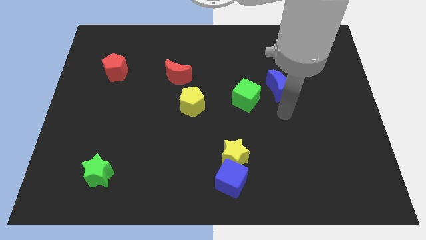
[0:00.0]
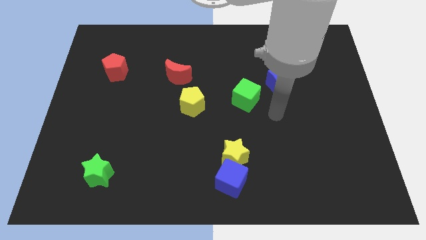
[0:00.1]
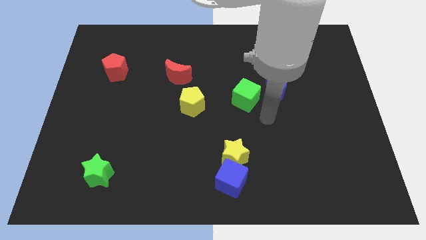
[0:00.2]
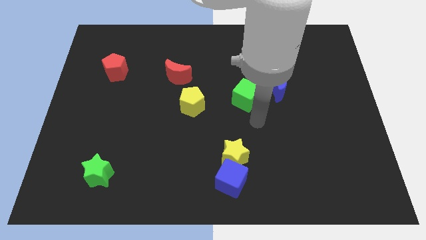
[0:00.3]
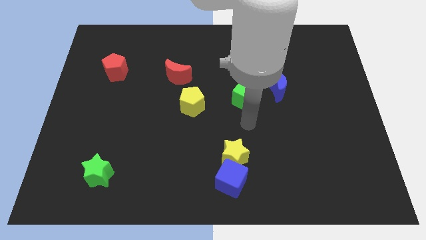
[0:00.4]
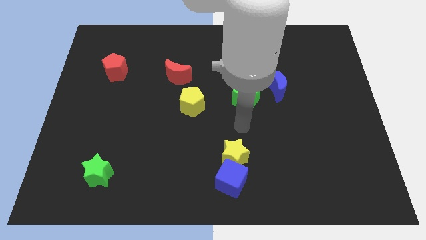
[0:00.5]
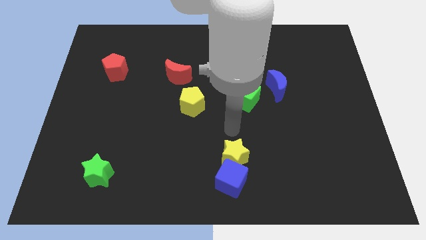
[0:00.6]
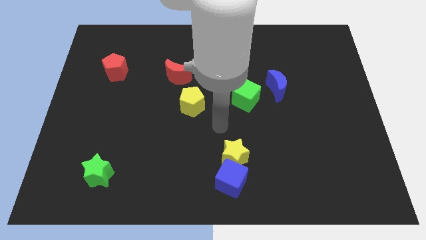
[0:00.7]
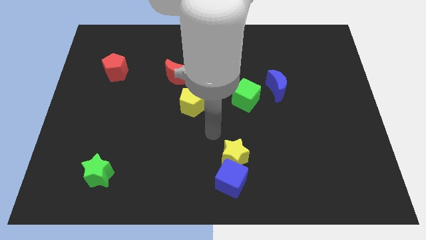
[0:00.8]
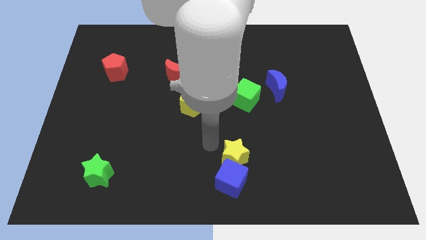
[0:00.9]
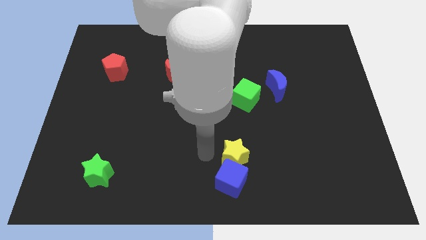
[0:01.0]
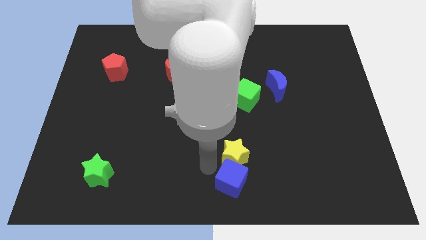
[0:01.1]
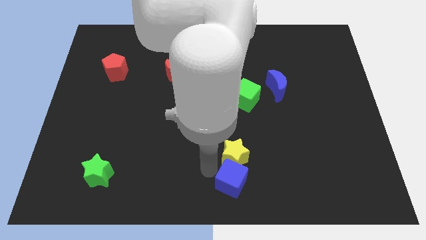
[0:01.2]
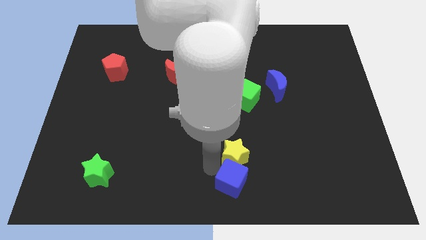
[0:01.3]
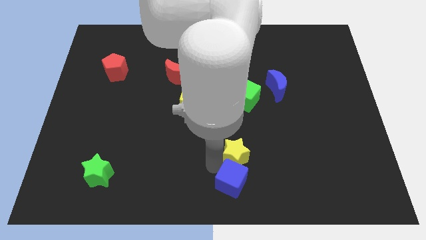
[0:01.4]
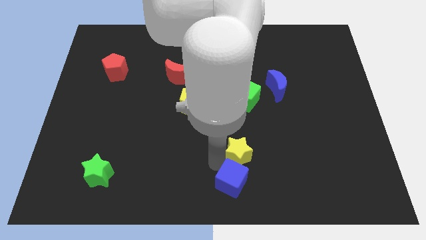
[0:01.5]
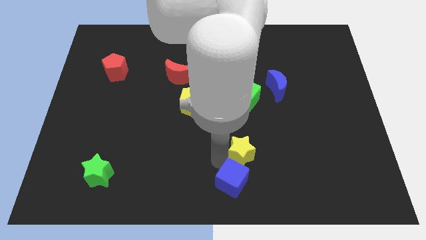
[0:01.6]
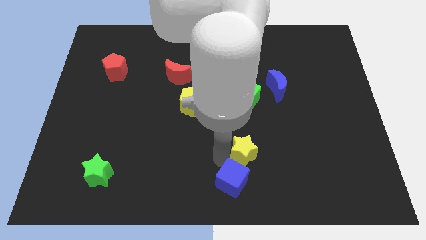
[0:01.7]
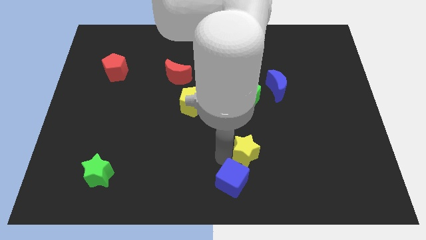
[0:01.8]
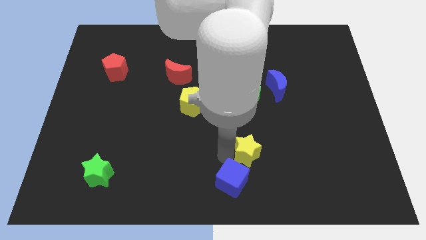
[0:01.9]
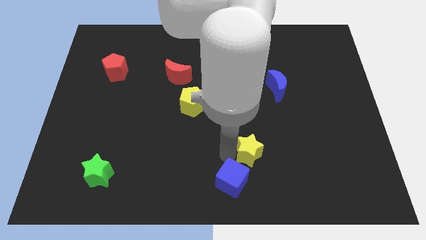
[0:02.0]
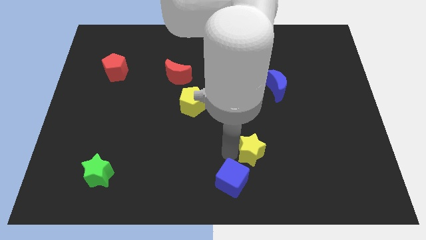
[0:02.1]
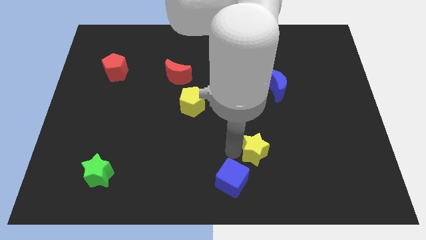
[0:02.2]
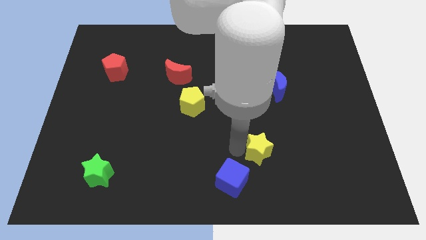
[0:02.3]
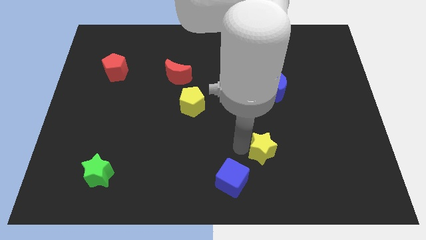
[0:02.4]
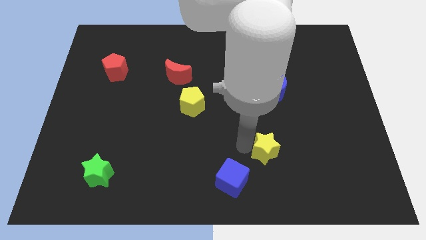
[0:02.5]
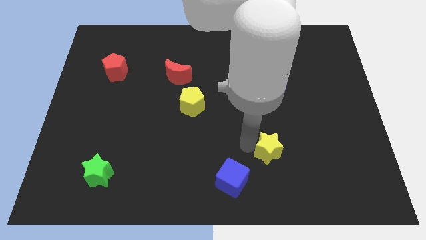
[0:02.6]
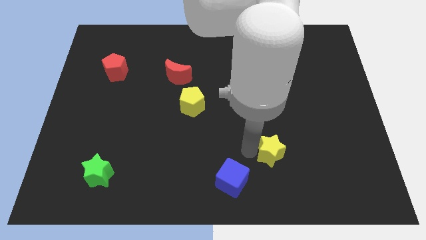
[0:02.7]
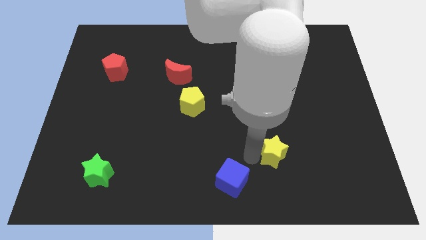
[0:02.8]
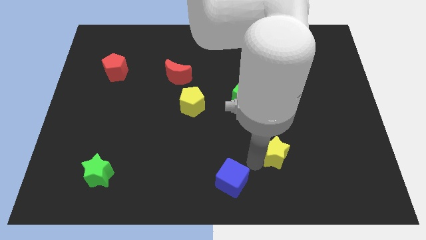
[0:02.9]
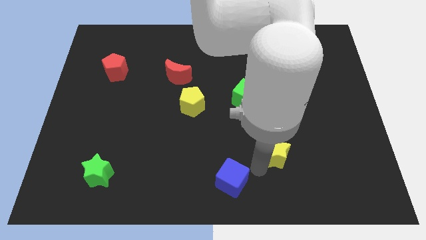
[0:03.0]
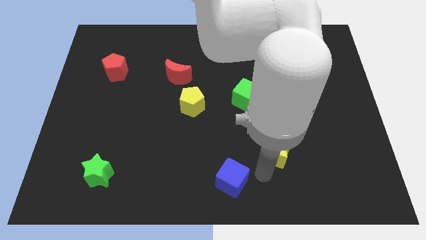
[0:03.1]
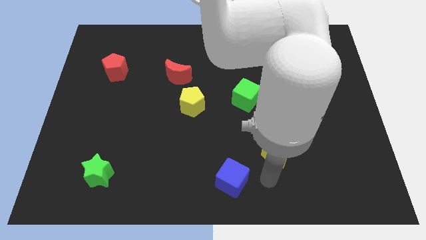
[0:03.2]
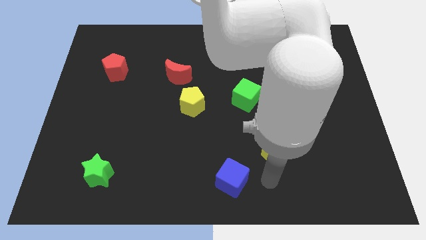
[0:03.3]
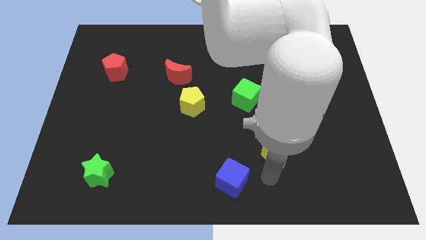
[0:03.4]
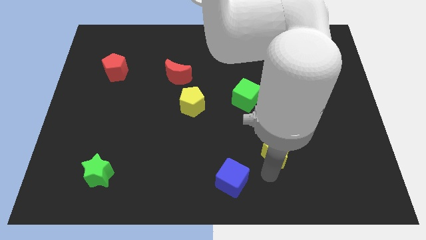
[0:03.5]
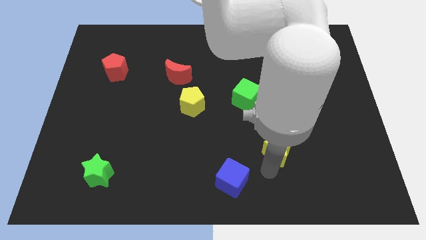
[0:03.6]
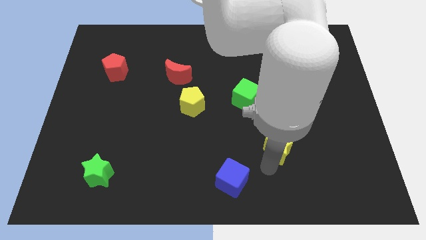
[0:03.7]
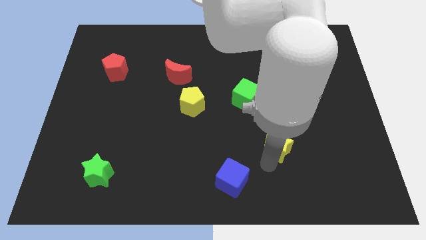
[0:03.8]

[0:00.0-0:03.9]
slide the yellow star a little up and then to the right

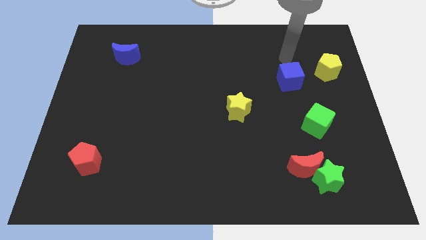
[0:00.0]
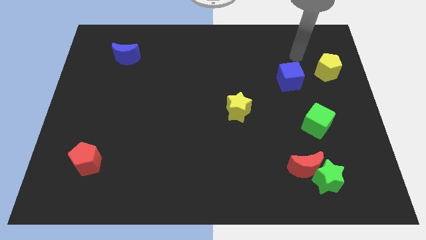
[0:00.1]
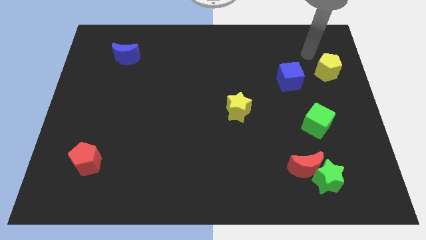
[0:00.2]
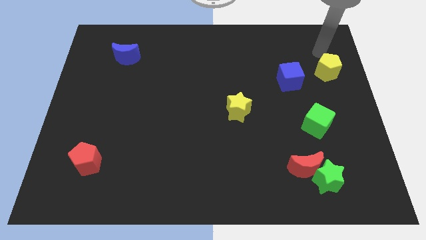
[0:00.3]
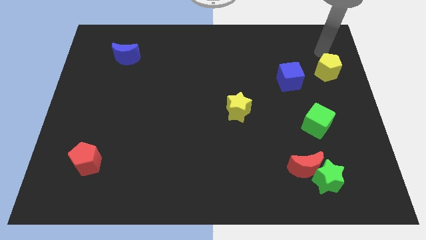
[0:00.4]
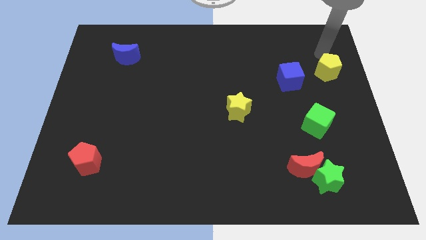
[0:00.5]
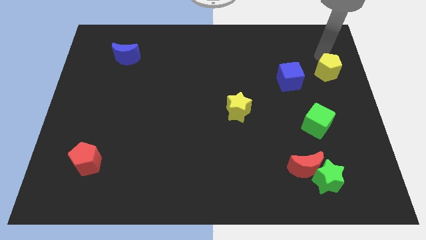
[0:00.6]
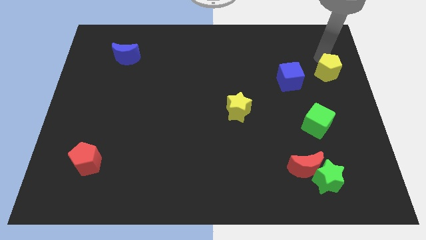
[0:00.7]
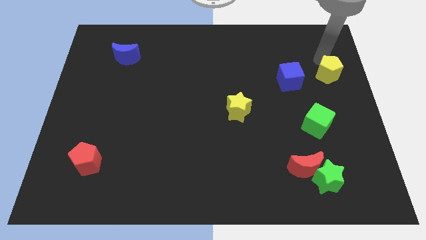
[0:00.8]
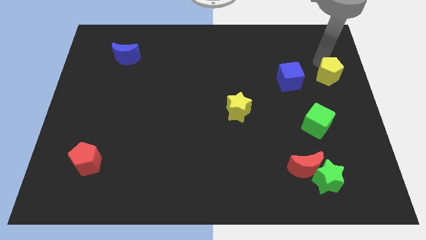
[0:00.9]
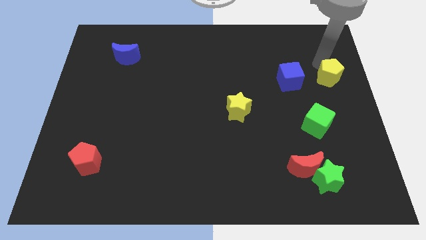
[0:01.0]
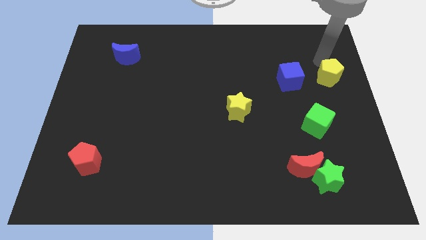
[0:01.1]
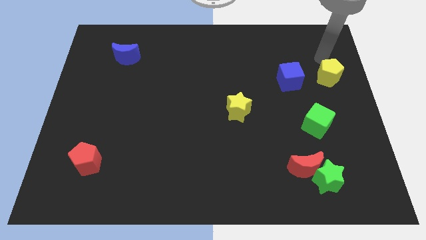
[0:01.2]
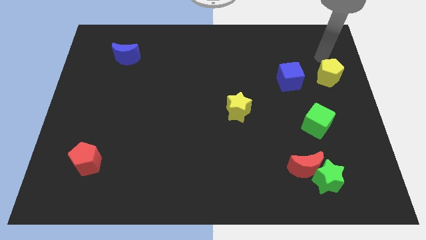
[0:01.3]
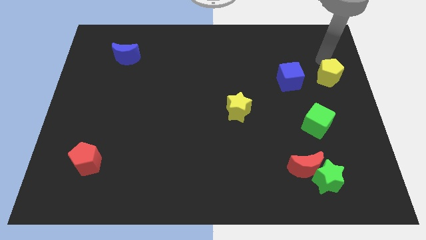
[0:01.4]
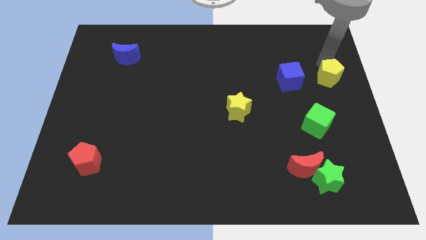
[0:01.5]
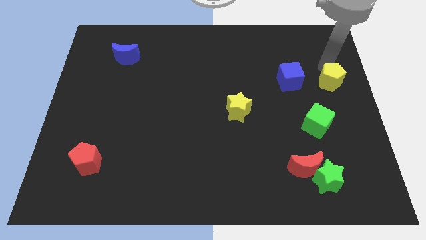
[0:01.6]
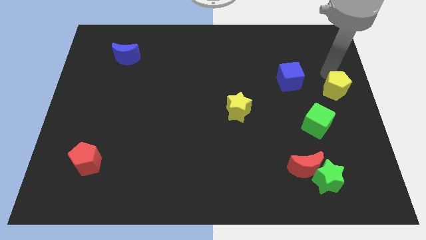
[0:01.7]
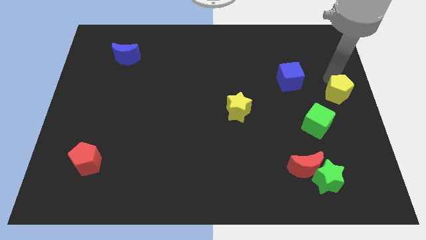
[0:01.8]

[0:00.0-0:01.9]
move the yellow pentagon down a little

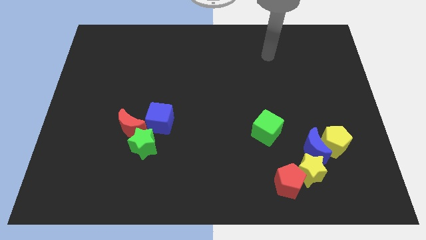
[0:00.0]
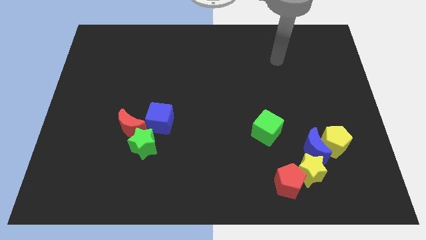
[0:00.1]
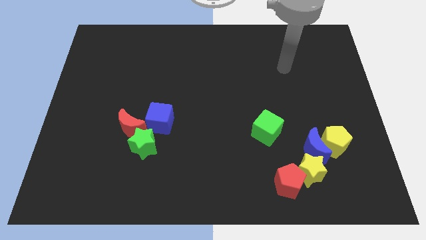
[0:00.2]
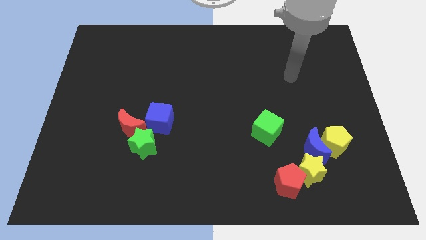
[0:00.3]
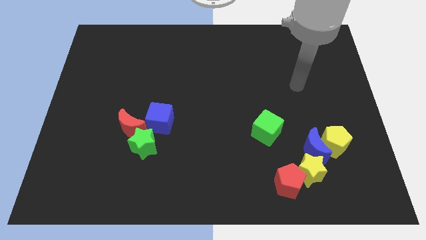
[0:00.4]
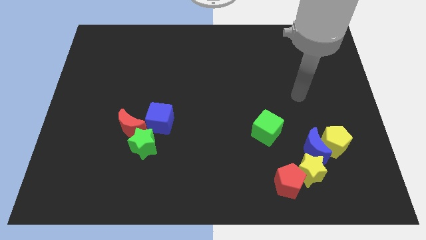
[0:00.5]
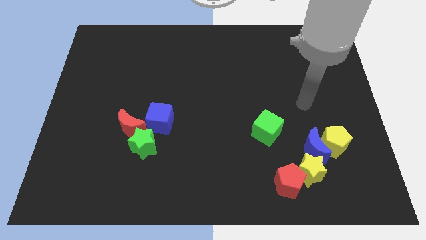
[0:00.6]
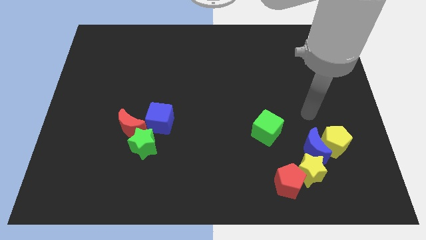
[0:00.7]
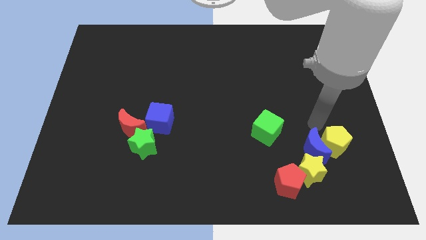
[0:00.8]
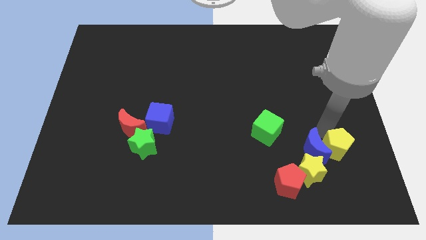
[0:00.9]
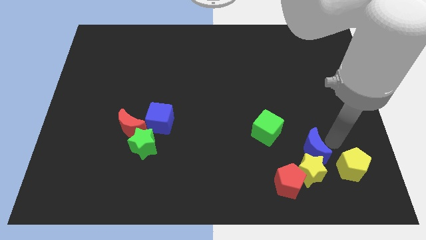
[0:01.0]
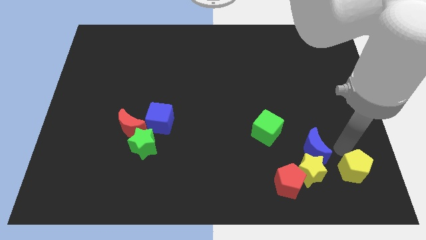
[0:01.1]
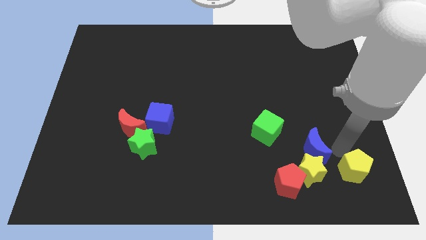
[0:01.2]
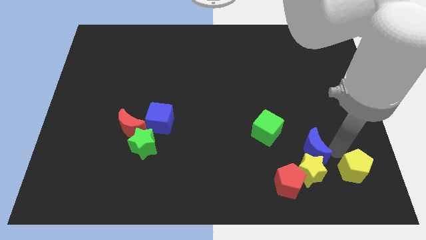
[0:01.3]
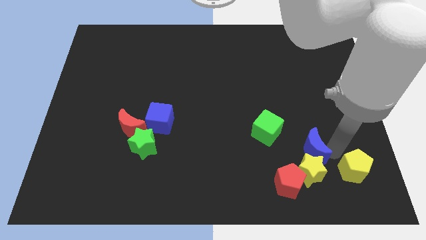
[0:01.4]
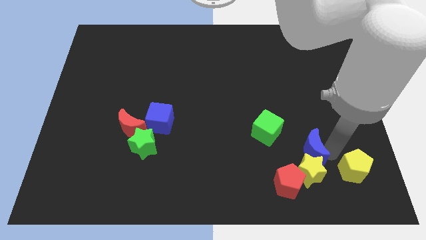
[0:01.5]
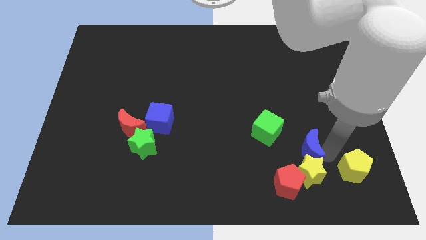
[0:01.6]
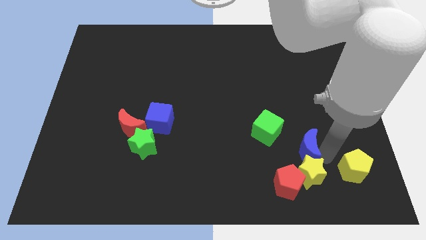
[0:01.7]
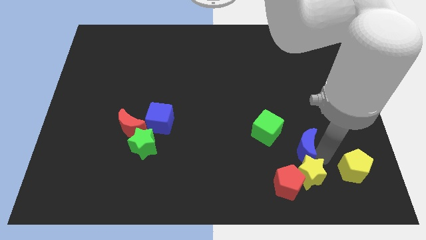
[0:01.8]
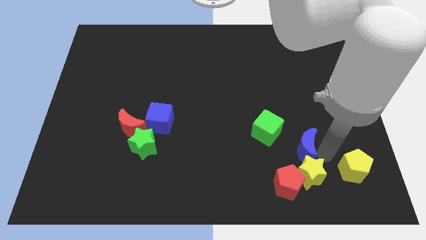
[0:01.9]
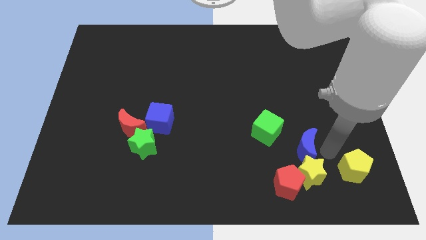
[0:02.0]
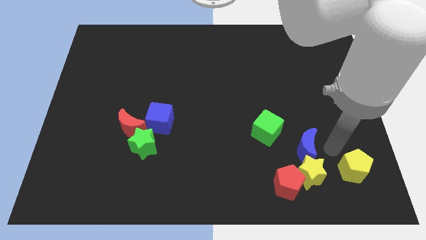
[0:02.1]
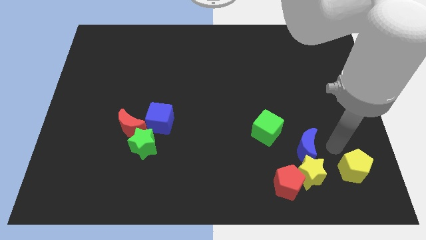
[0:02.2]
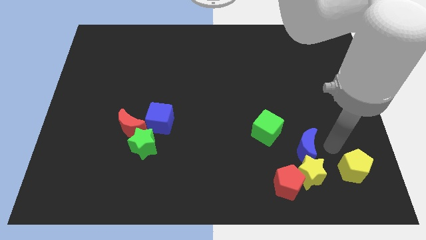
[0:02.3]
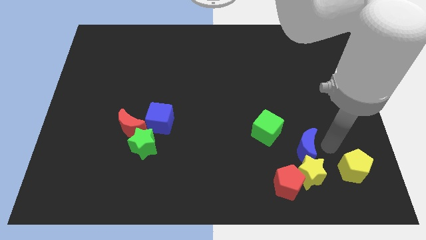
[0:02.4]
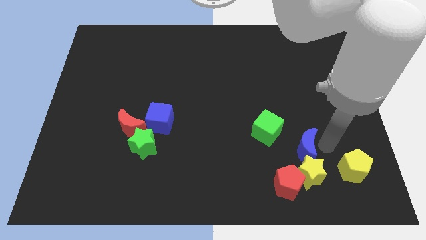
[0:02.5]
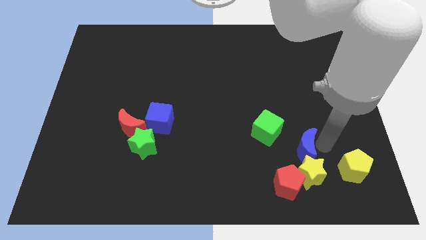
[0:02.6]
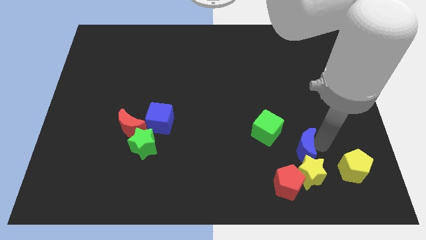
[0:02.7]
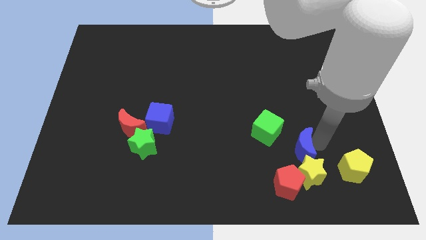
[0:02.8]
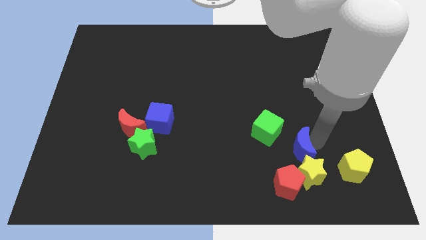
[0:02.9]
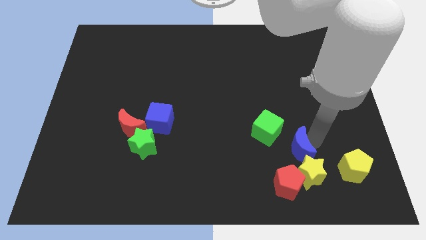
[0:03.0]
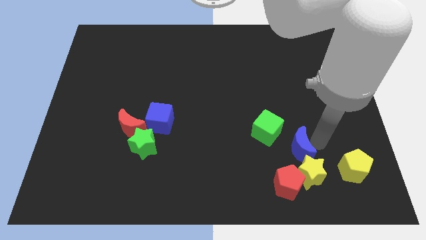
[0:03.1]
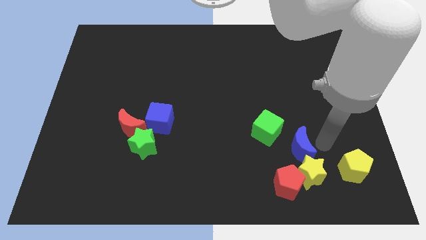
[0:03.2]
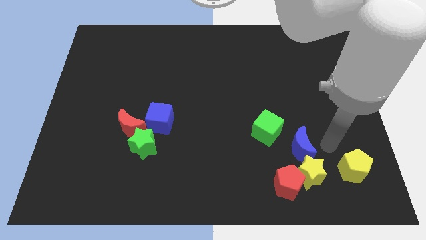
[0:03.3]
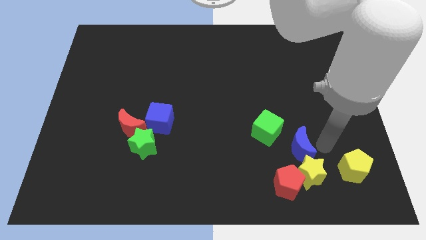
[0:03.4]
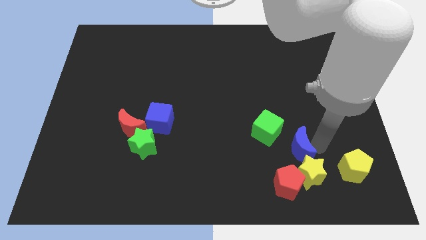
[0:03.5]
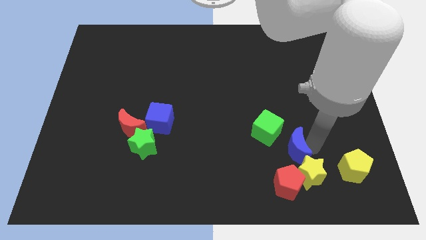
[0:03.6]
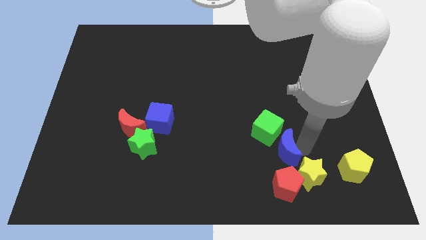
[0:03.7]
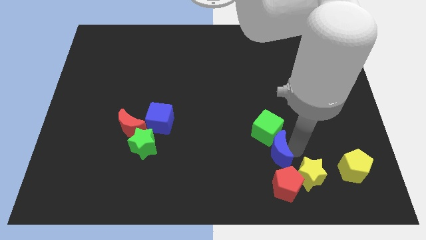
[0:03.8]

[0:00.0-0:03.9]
slightly slide the blue moon left
